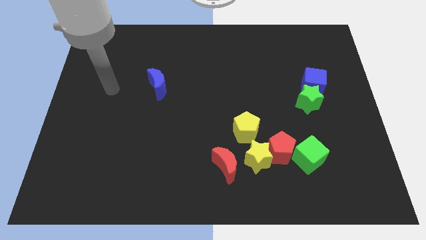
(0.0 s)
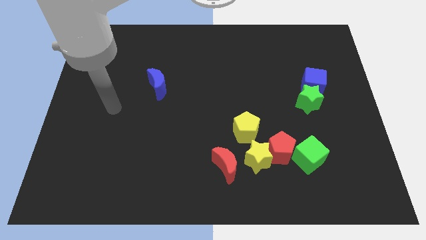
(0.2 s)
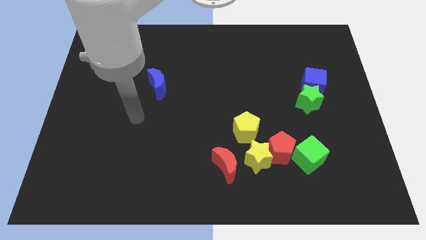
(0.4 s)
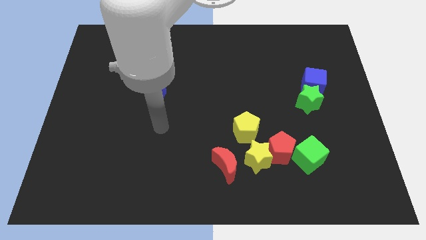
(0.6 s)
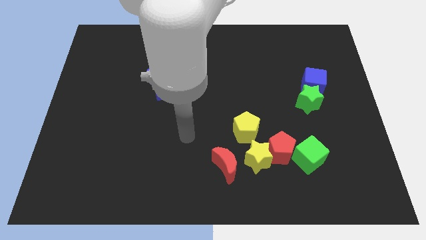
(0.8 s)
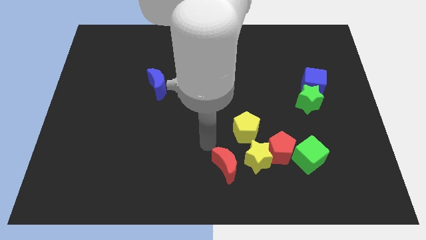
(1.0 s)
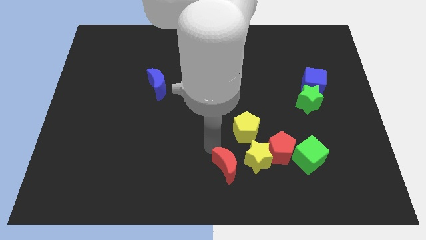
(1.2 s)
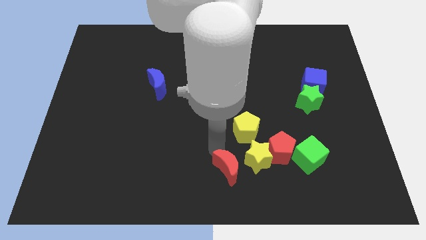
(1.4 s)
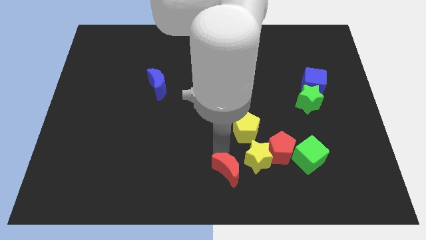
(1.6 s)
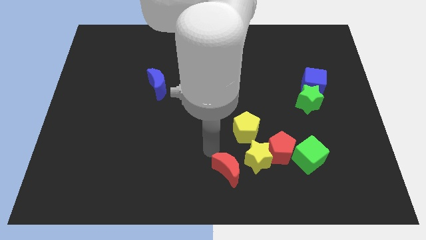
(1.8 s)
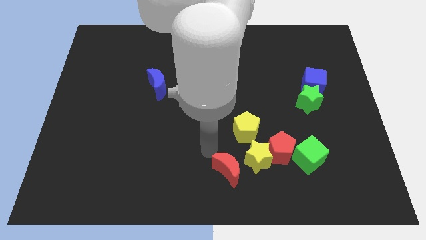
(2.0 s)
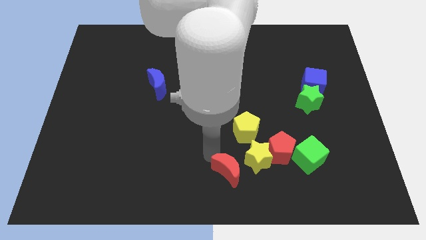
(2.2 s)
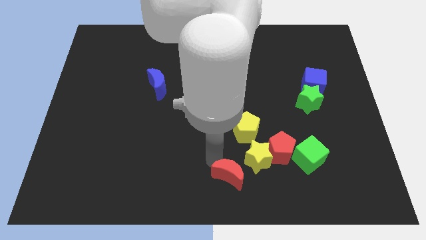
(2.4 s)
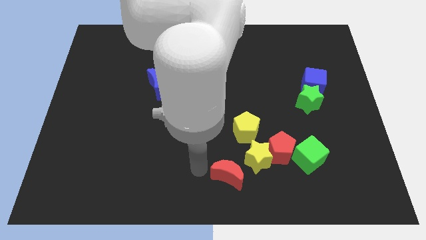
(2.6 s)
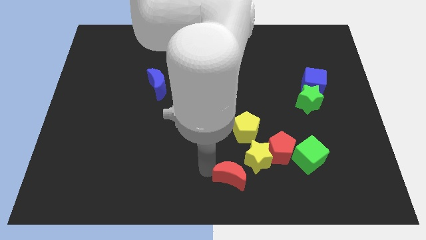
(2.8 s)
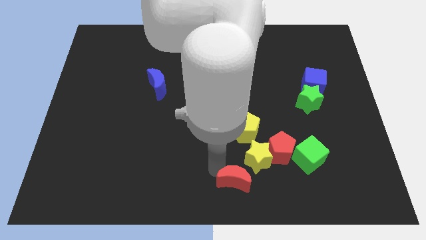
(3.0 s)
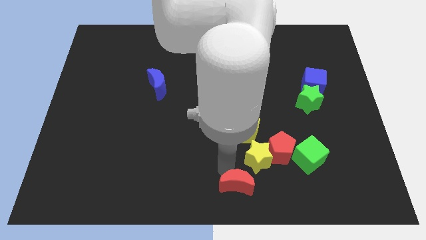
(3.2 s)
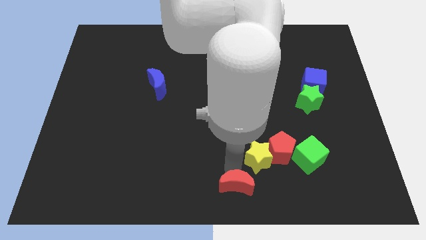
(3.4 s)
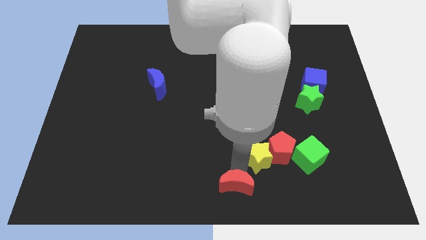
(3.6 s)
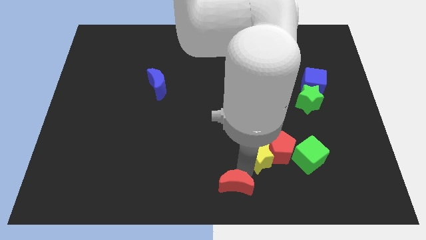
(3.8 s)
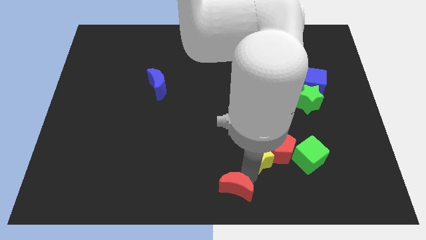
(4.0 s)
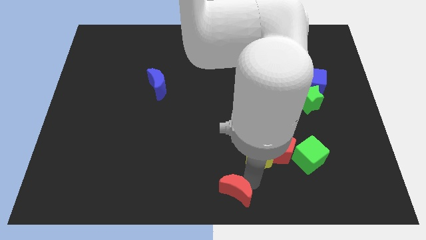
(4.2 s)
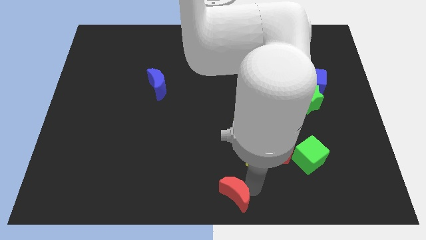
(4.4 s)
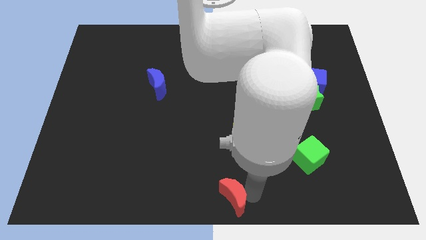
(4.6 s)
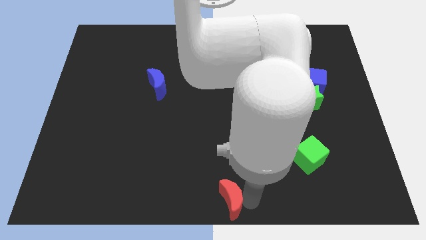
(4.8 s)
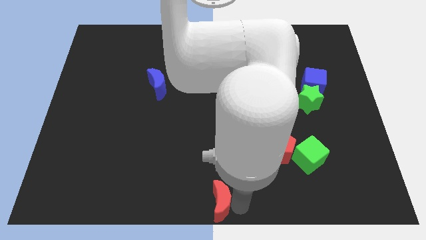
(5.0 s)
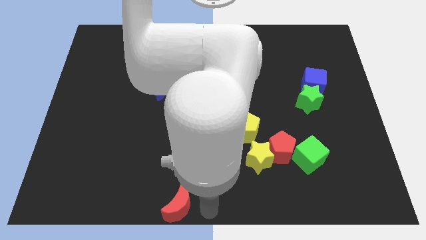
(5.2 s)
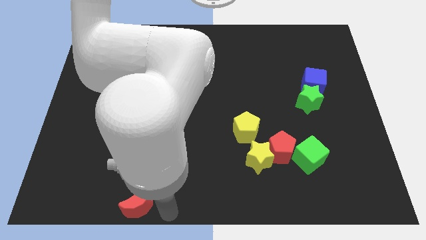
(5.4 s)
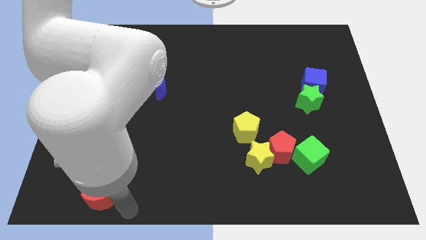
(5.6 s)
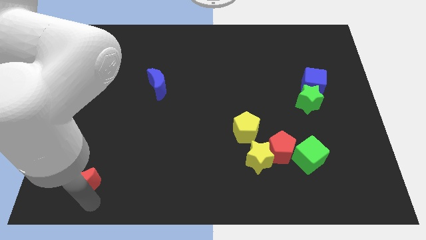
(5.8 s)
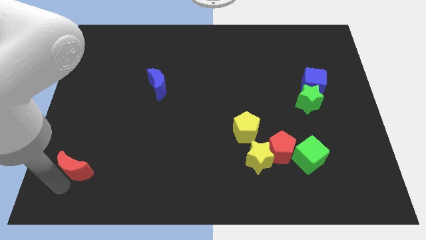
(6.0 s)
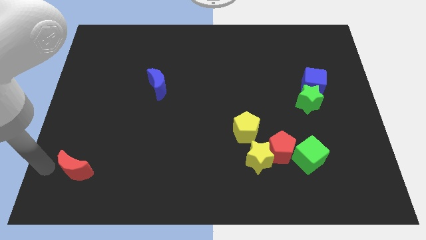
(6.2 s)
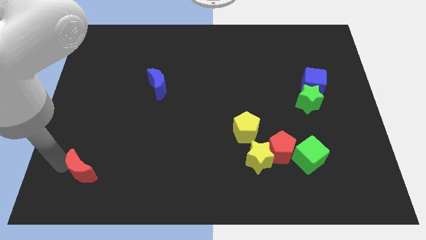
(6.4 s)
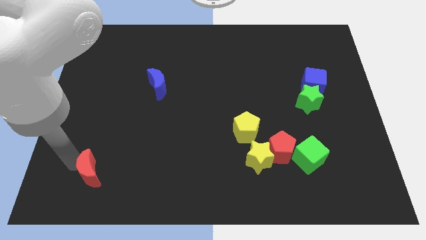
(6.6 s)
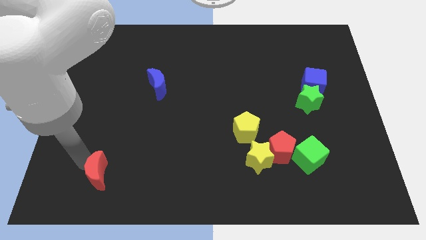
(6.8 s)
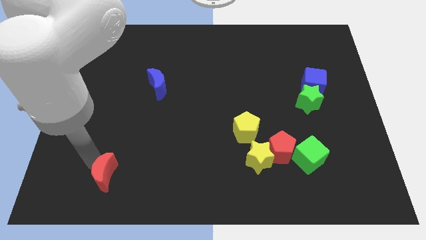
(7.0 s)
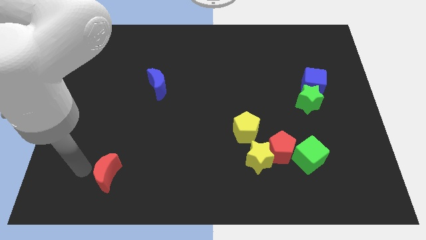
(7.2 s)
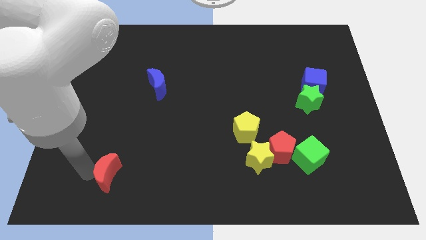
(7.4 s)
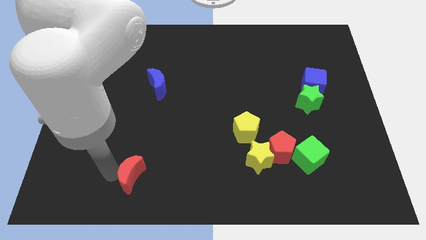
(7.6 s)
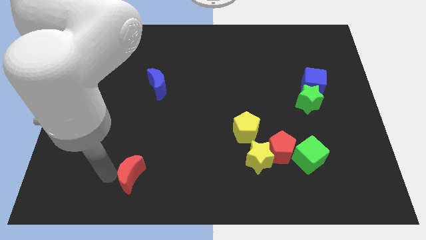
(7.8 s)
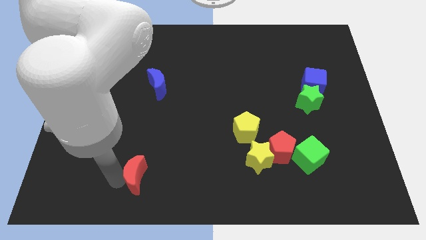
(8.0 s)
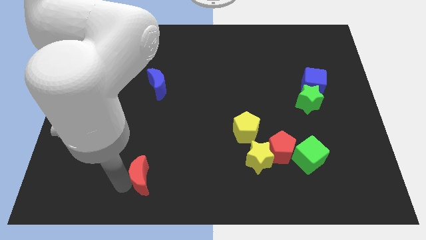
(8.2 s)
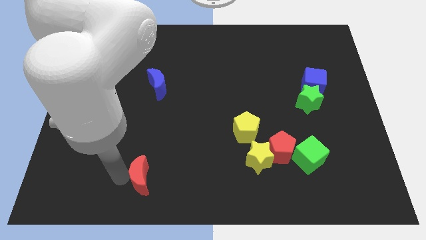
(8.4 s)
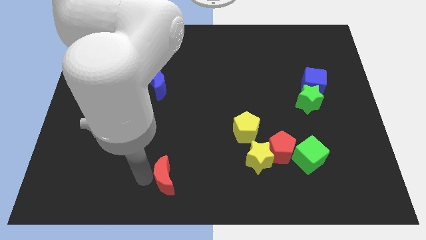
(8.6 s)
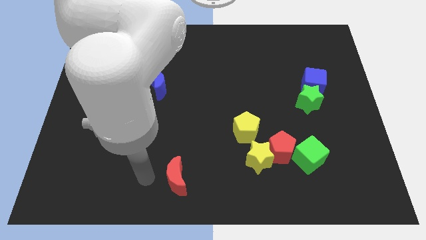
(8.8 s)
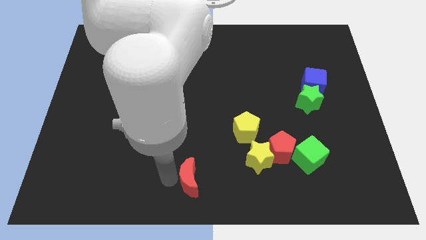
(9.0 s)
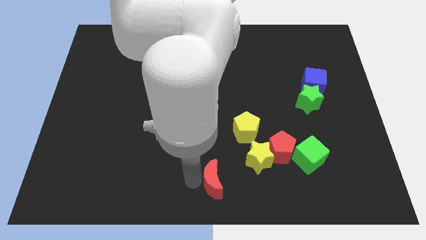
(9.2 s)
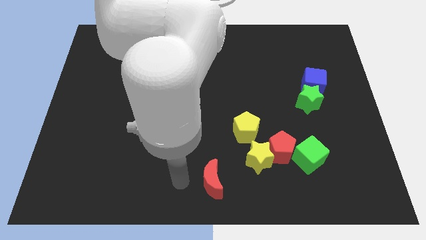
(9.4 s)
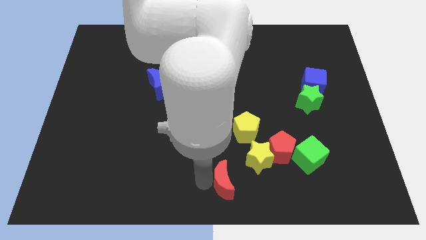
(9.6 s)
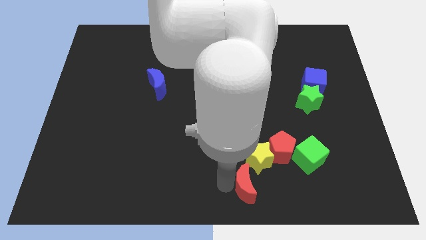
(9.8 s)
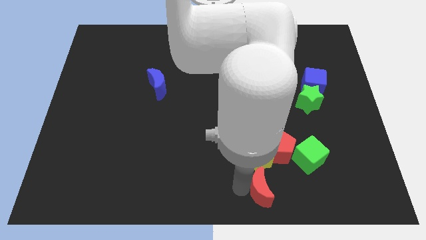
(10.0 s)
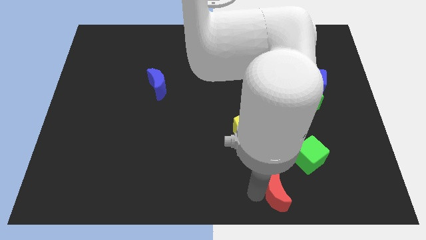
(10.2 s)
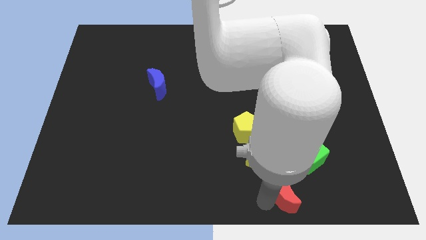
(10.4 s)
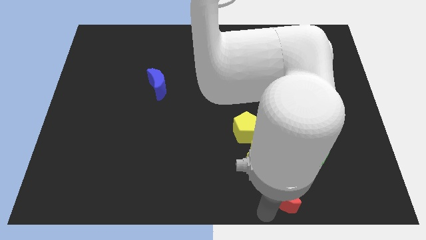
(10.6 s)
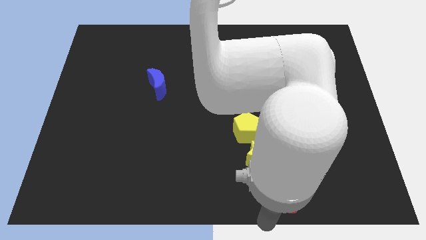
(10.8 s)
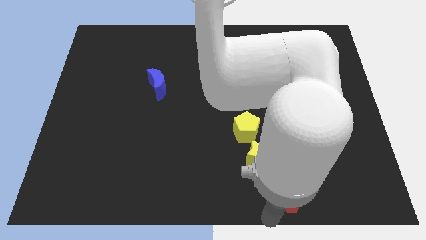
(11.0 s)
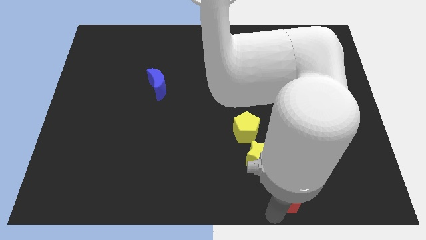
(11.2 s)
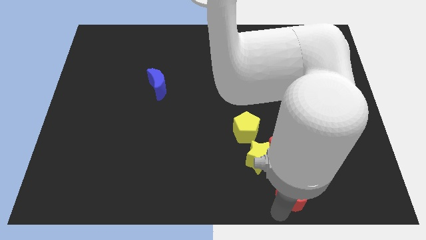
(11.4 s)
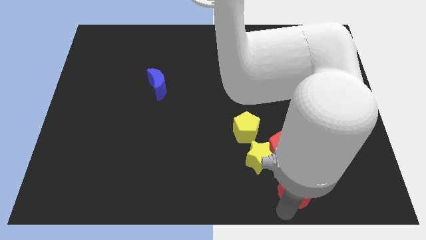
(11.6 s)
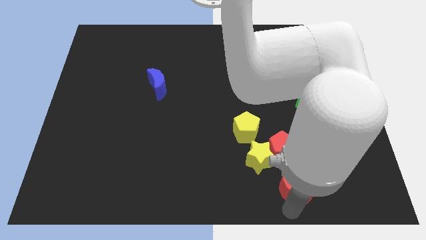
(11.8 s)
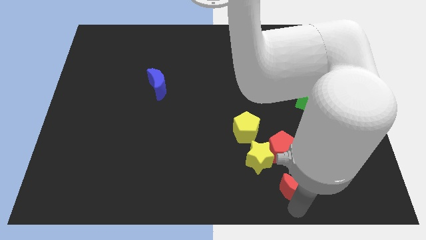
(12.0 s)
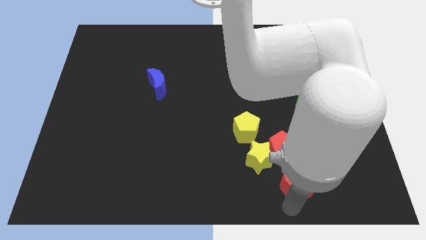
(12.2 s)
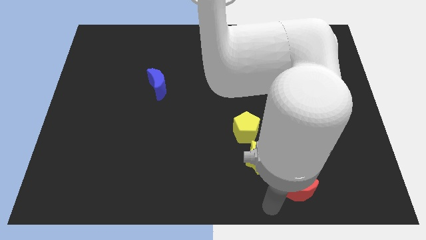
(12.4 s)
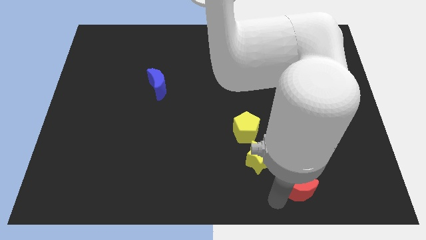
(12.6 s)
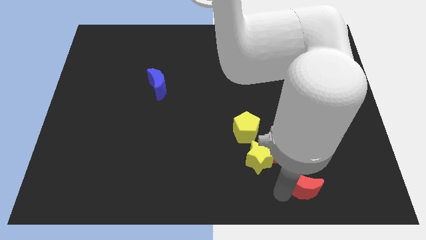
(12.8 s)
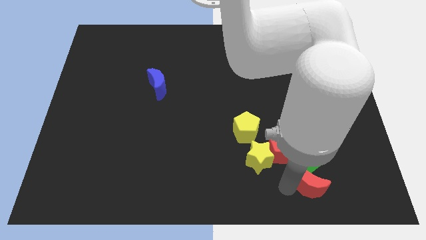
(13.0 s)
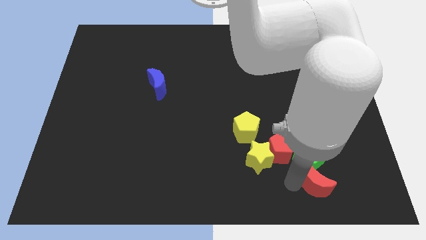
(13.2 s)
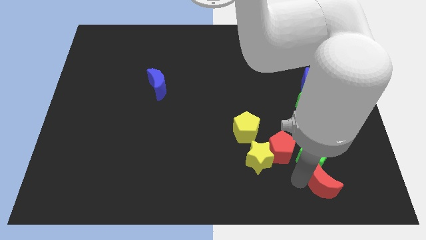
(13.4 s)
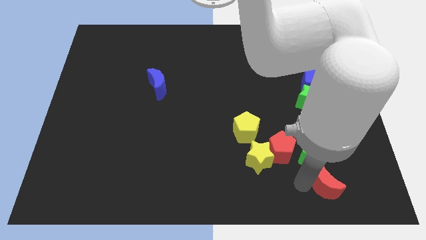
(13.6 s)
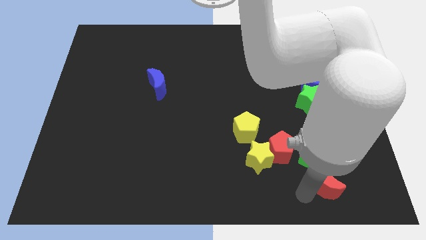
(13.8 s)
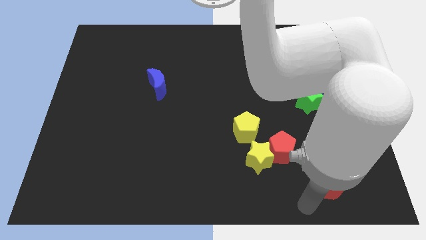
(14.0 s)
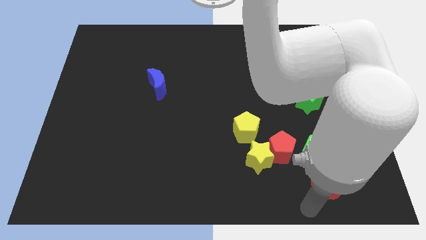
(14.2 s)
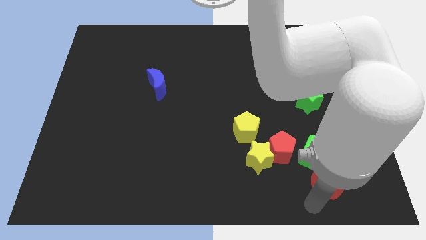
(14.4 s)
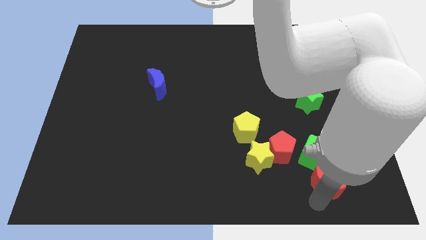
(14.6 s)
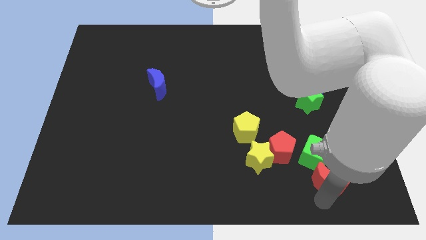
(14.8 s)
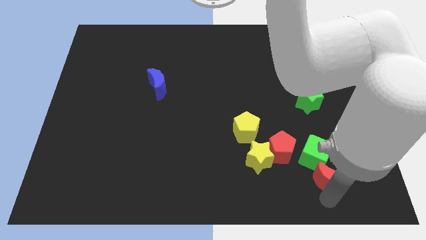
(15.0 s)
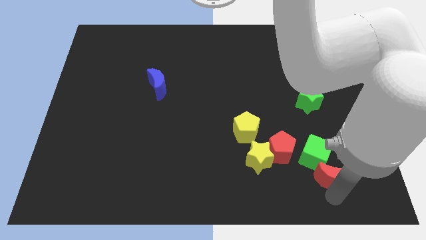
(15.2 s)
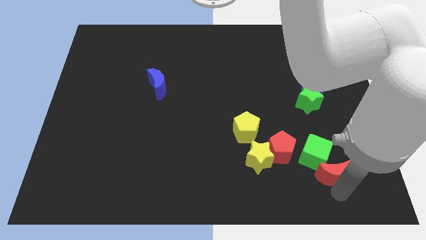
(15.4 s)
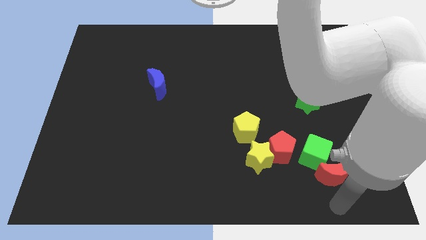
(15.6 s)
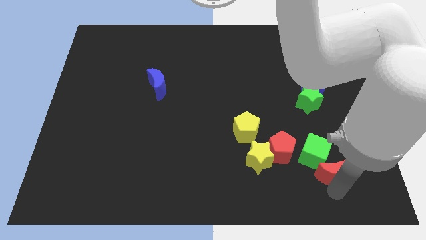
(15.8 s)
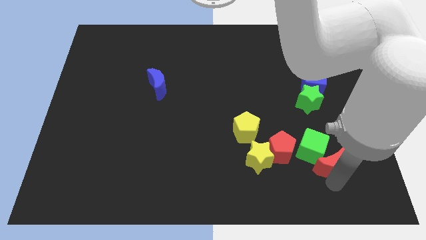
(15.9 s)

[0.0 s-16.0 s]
put the red moon to the right side of the red pentagon
